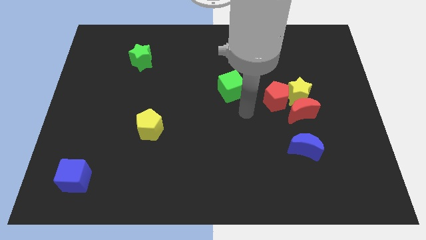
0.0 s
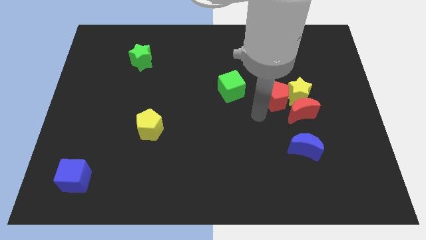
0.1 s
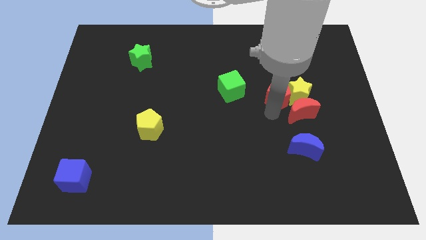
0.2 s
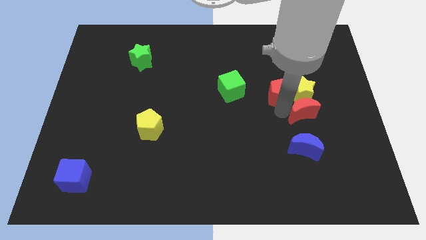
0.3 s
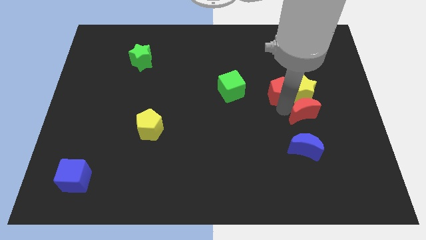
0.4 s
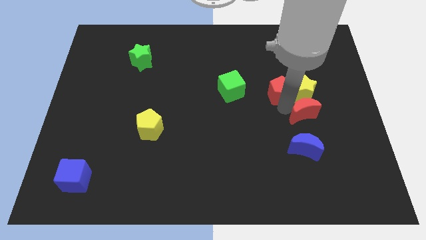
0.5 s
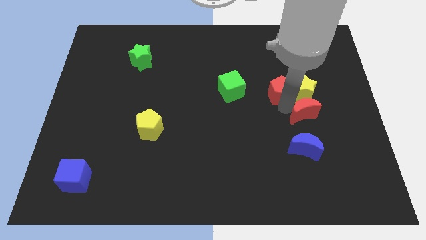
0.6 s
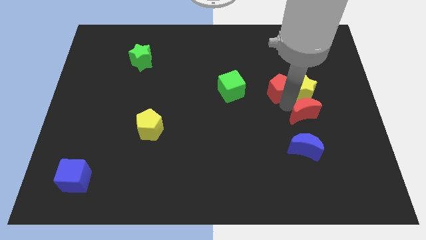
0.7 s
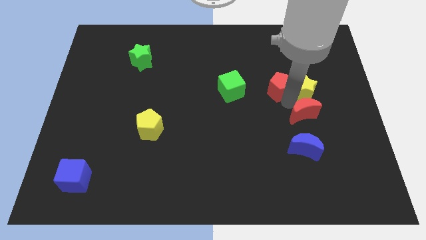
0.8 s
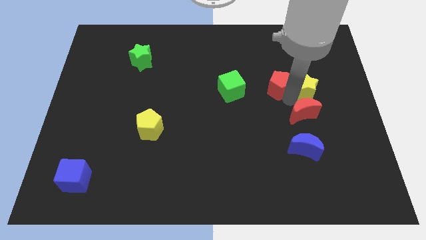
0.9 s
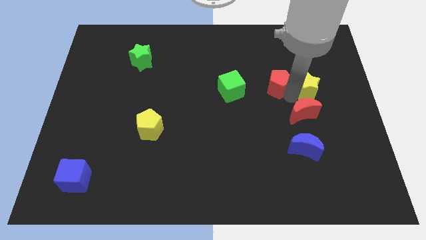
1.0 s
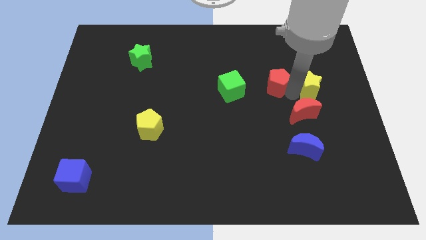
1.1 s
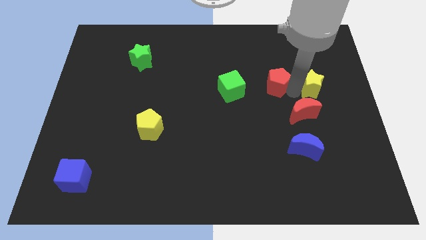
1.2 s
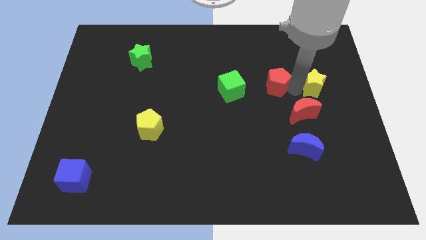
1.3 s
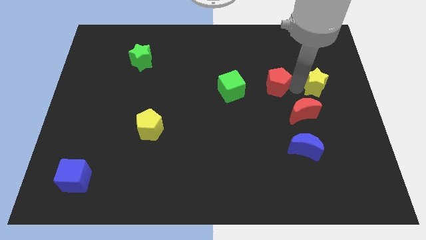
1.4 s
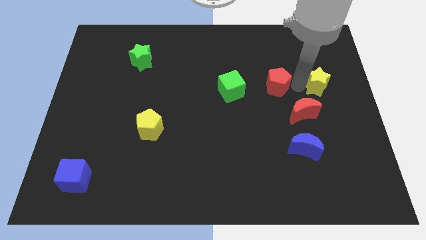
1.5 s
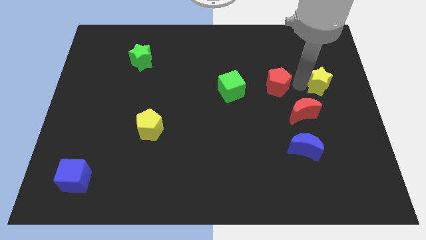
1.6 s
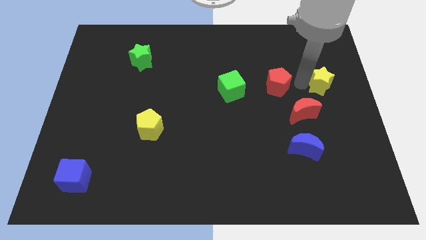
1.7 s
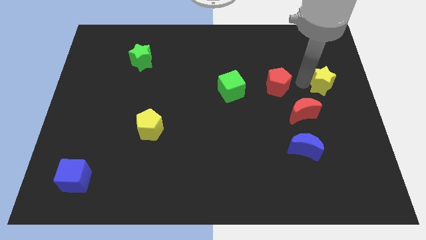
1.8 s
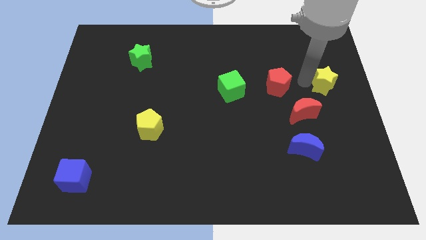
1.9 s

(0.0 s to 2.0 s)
separate the yellow star from the red moon and red pentagon

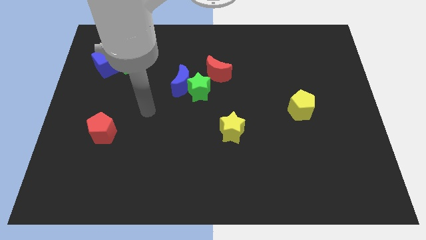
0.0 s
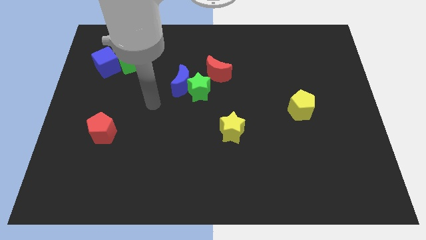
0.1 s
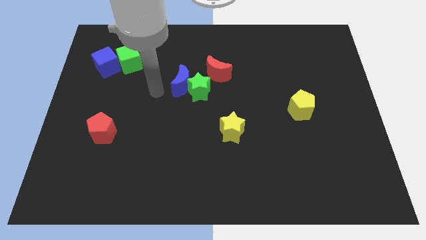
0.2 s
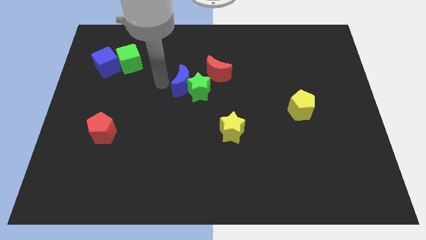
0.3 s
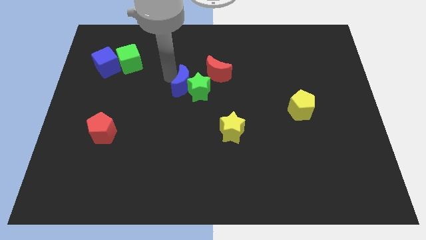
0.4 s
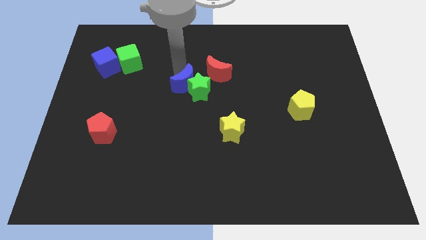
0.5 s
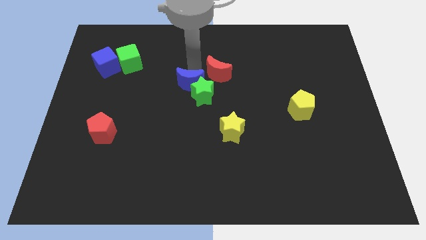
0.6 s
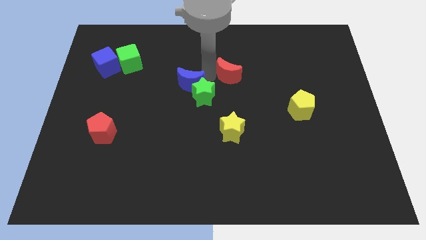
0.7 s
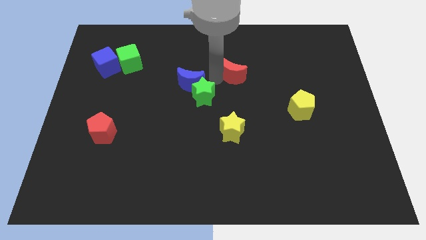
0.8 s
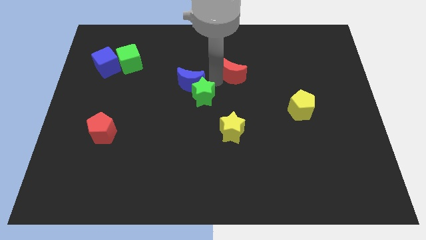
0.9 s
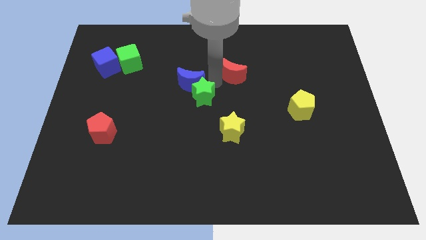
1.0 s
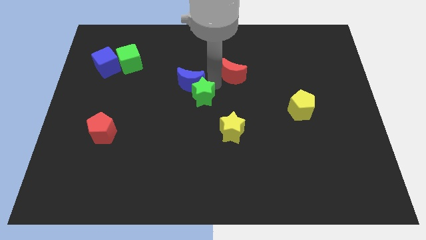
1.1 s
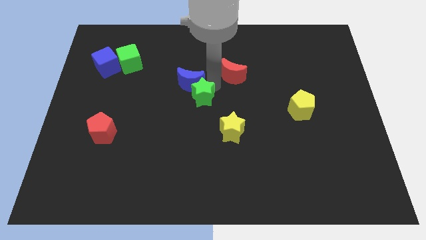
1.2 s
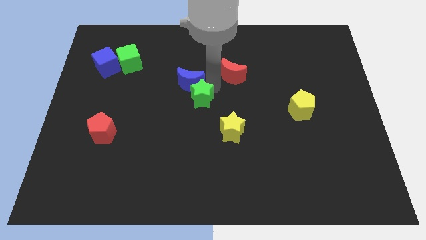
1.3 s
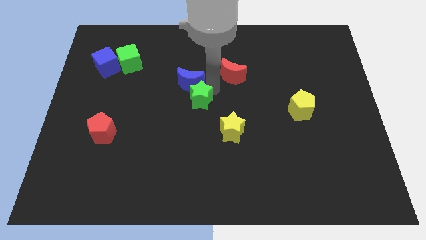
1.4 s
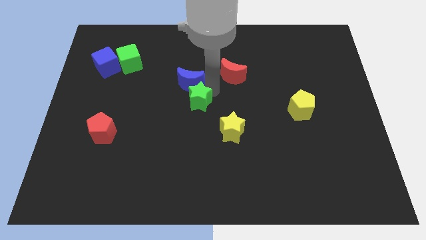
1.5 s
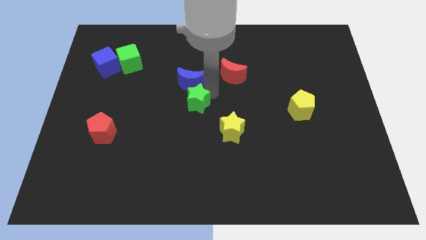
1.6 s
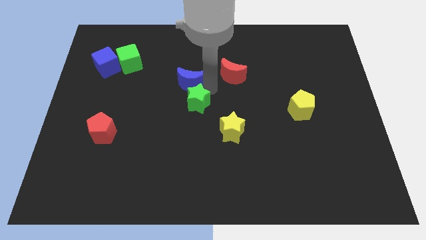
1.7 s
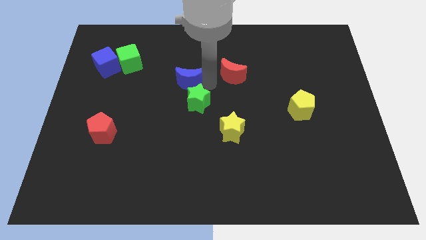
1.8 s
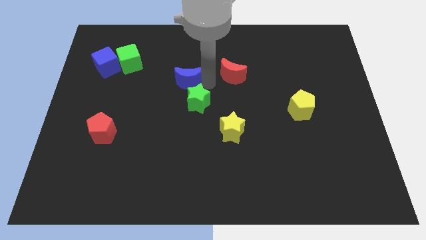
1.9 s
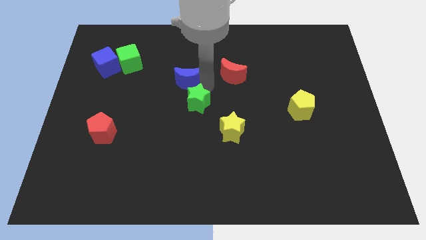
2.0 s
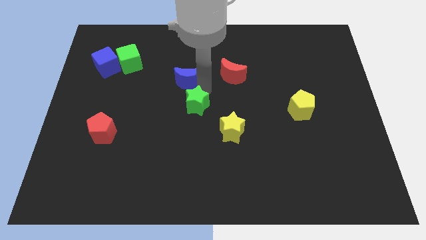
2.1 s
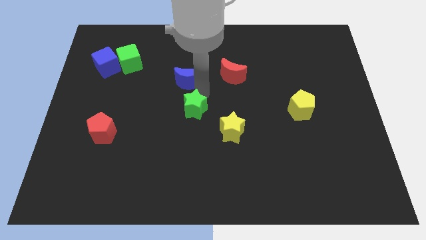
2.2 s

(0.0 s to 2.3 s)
separate the green star from the blue moon and red moon

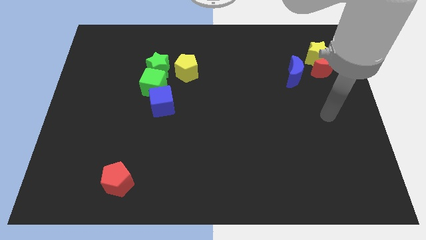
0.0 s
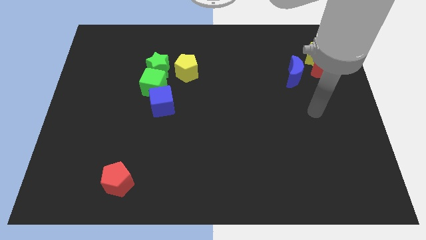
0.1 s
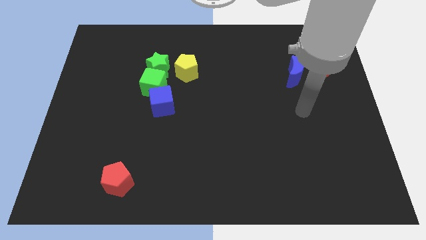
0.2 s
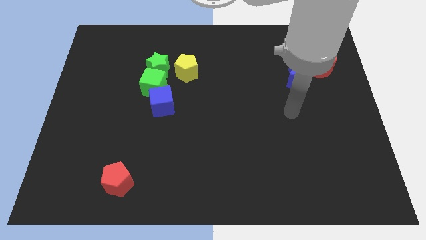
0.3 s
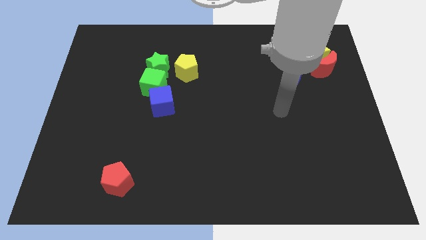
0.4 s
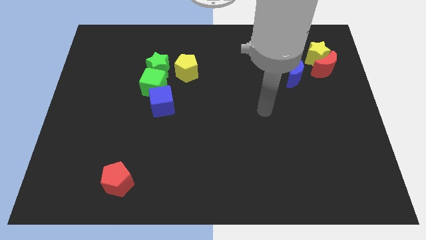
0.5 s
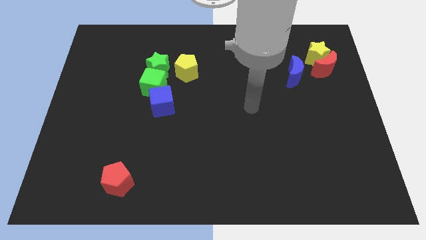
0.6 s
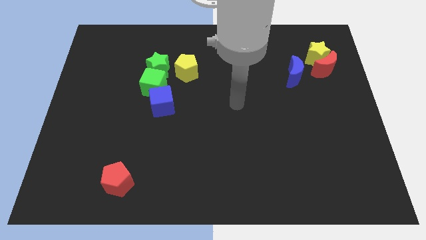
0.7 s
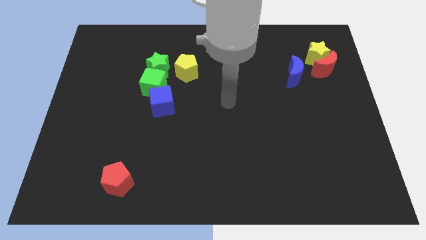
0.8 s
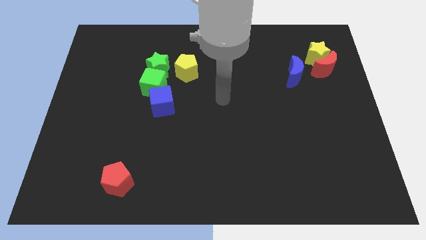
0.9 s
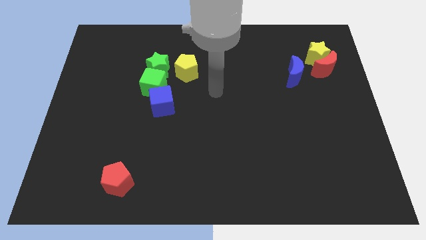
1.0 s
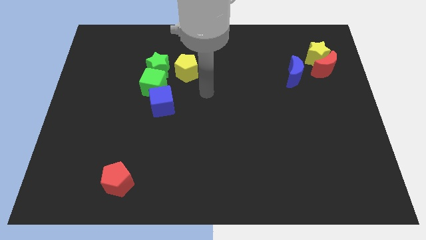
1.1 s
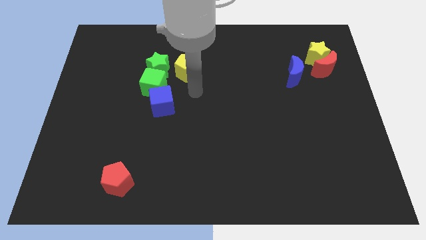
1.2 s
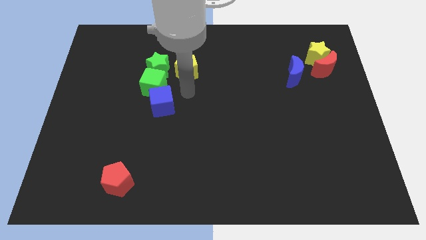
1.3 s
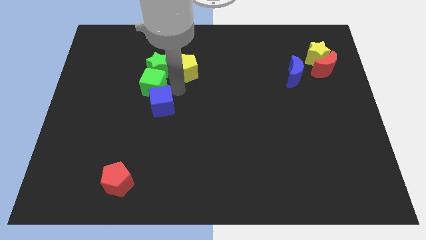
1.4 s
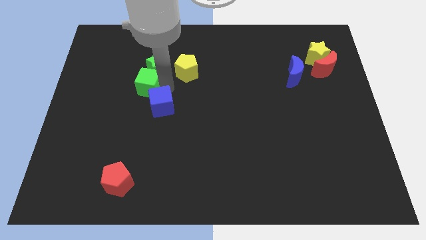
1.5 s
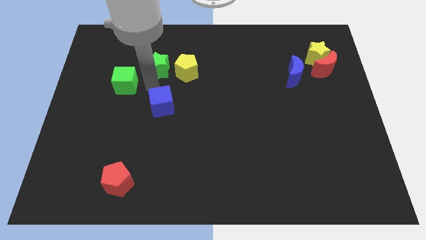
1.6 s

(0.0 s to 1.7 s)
pull the blue cube apart from the green cube

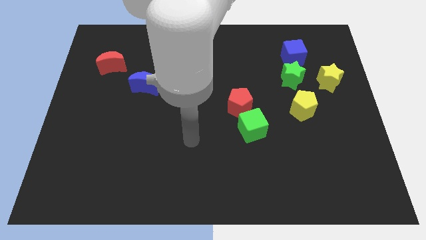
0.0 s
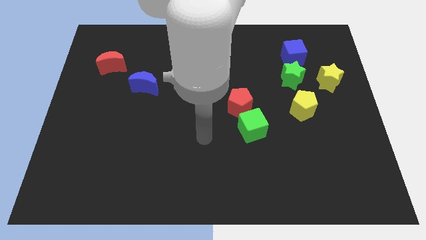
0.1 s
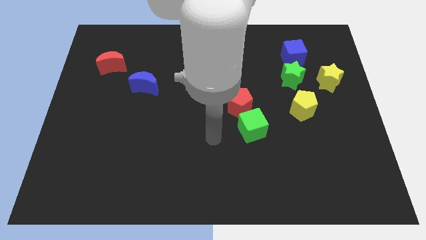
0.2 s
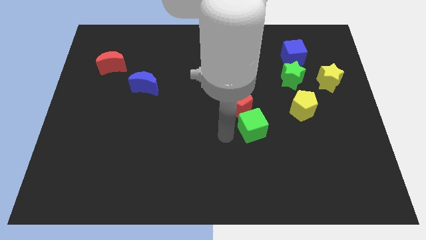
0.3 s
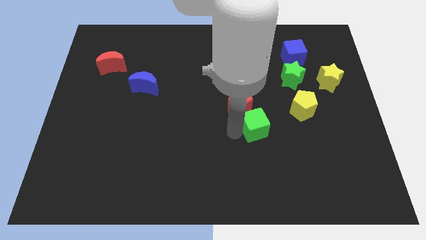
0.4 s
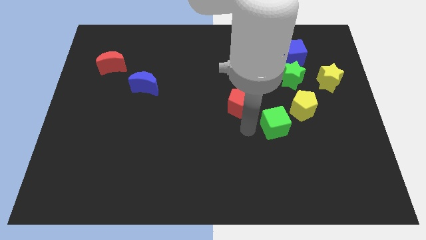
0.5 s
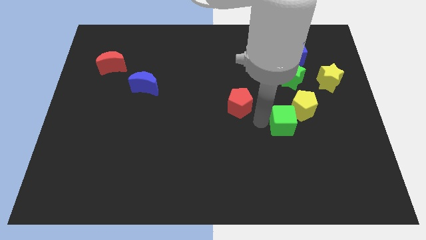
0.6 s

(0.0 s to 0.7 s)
separate the red pentagon from the green cube

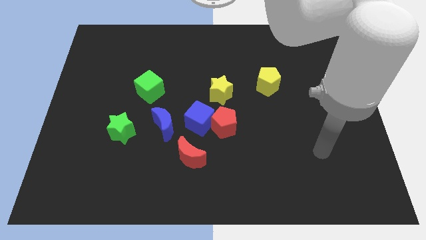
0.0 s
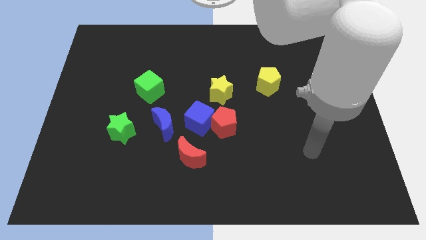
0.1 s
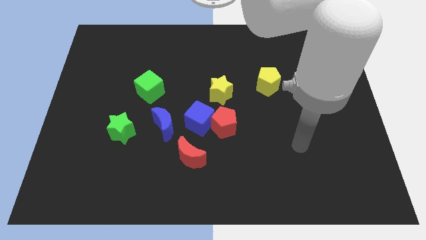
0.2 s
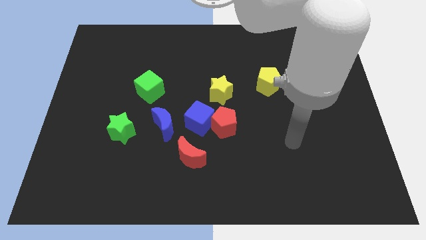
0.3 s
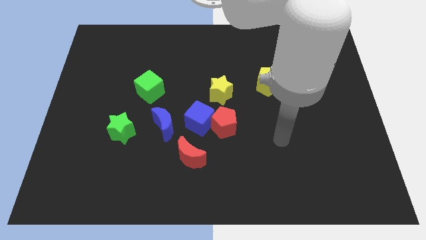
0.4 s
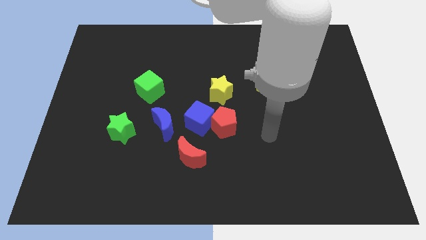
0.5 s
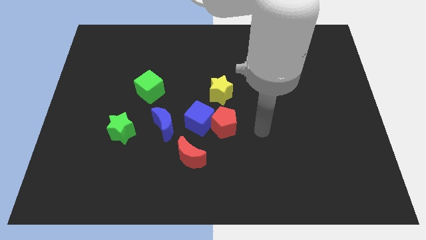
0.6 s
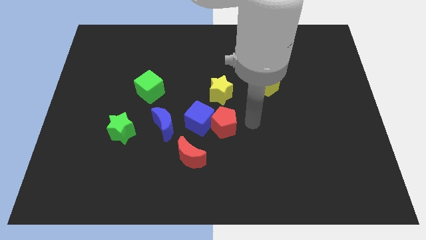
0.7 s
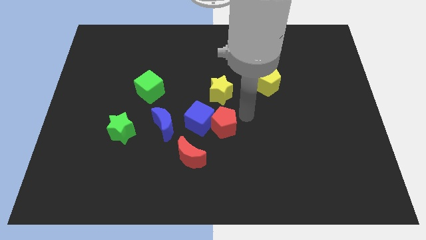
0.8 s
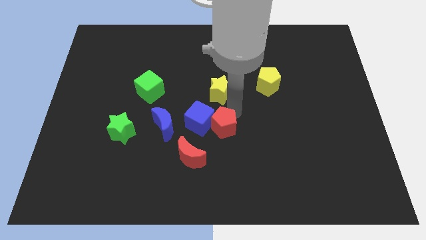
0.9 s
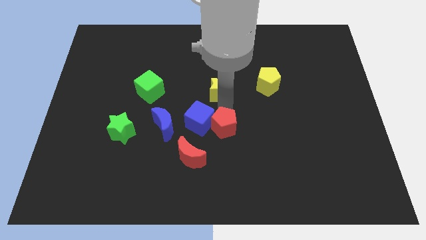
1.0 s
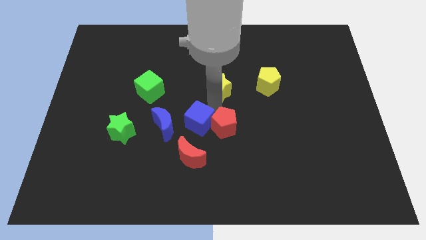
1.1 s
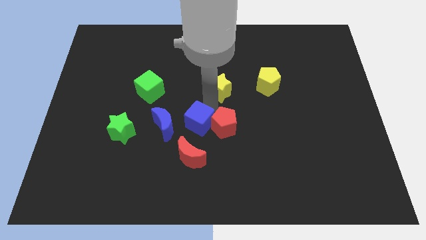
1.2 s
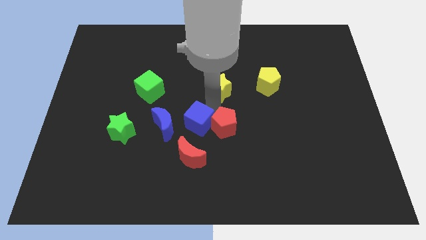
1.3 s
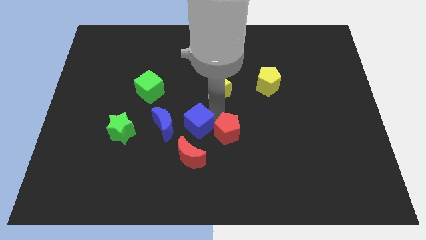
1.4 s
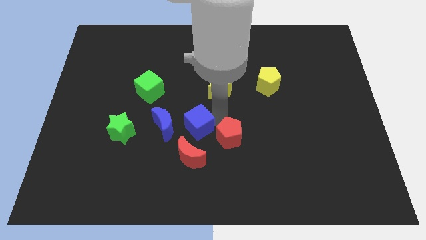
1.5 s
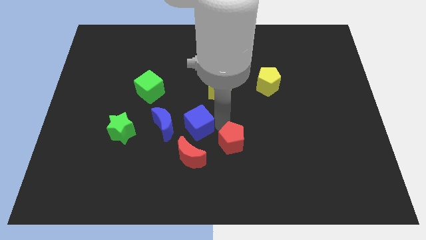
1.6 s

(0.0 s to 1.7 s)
separate the red pentagon from the blue cube and yellow star

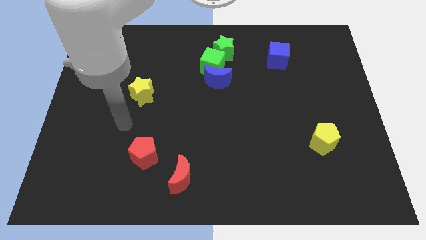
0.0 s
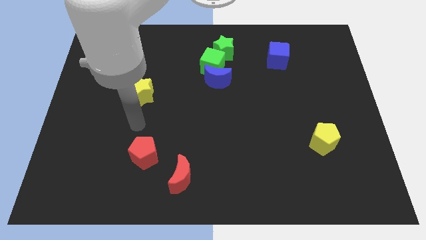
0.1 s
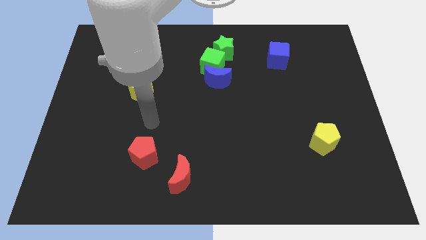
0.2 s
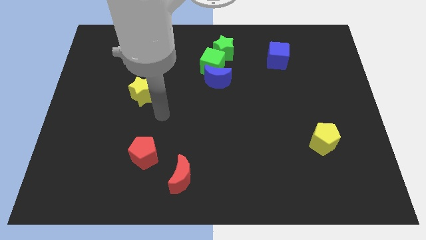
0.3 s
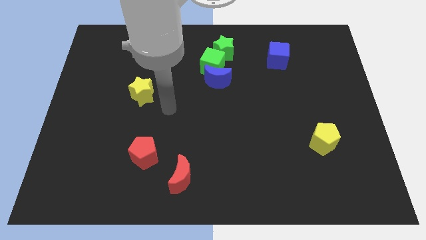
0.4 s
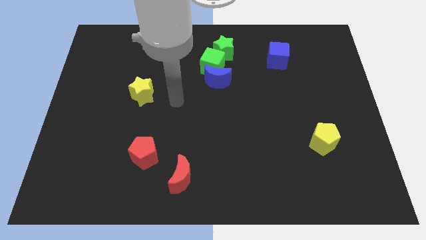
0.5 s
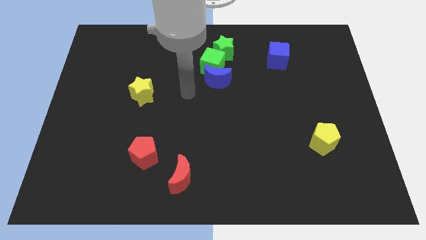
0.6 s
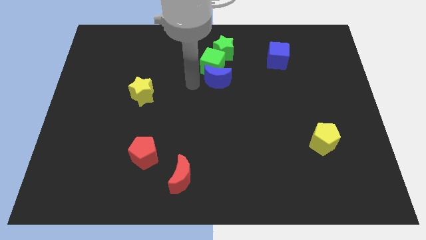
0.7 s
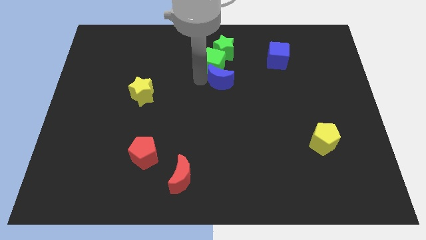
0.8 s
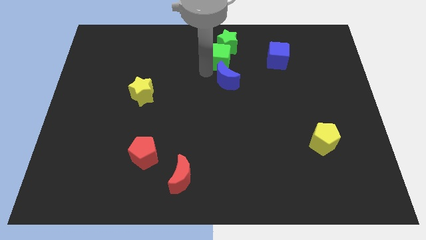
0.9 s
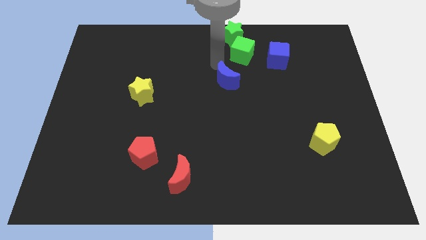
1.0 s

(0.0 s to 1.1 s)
move the blue moon away from the green cube

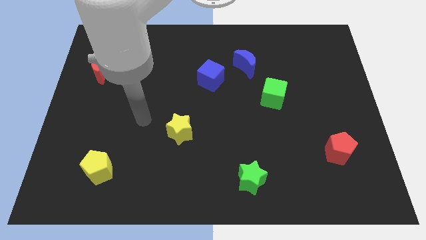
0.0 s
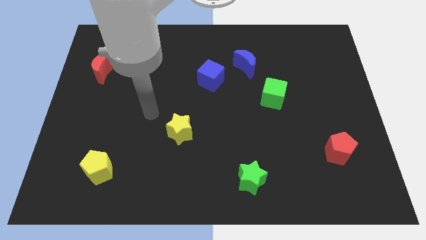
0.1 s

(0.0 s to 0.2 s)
move the blue moon away from the blue cube
